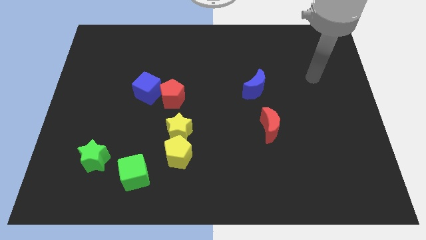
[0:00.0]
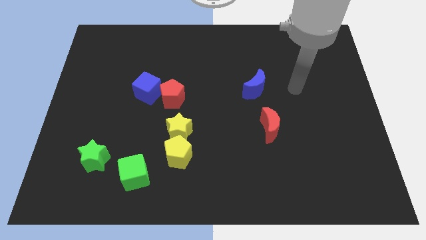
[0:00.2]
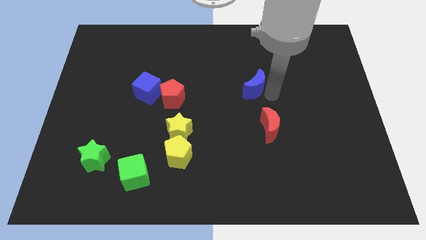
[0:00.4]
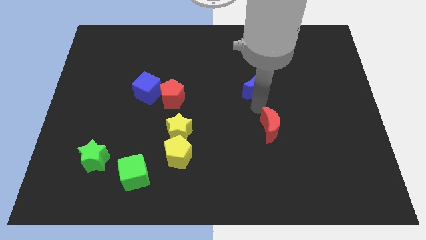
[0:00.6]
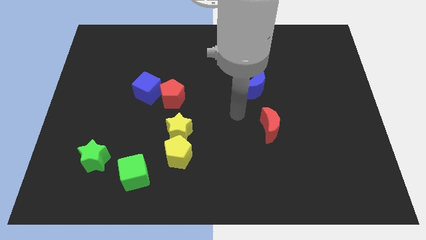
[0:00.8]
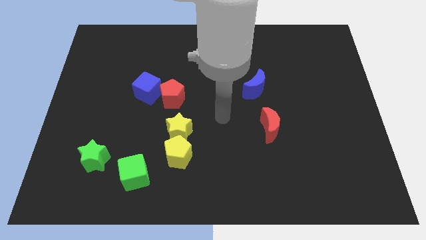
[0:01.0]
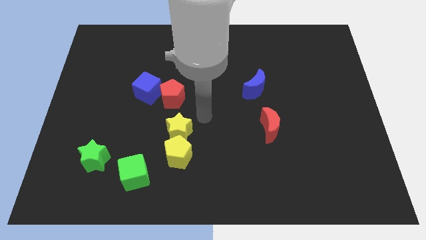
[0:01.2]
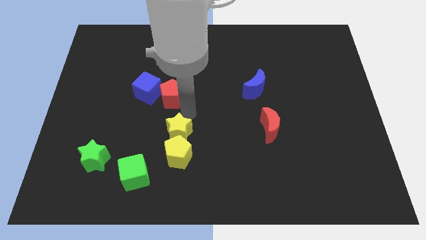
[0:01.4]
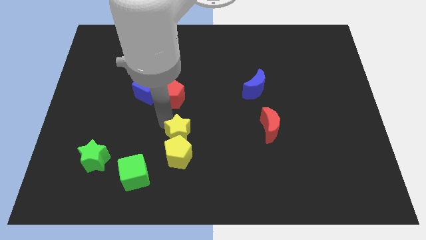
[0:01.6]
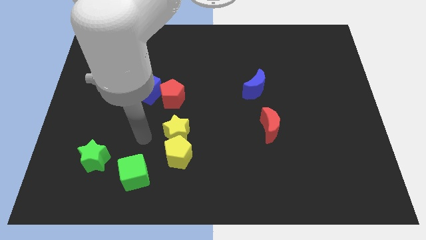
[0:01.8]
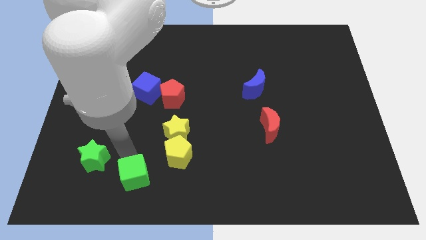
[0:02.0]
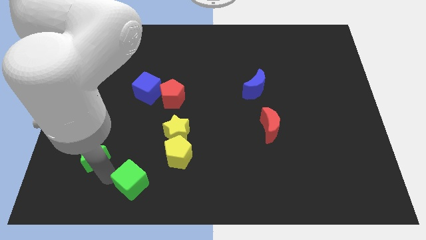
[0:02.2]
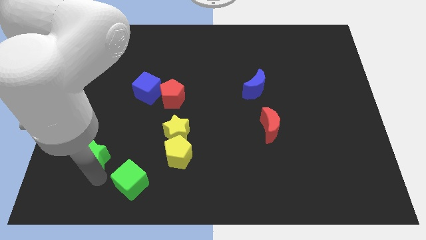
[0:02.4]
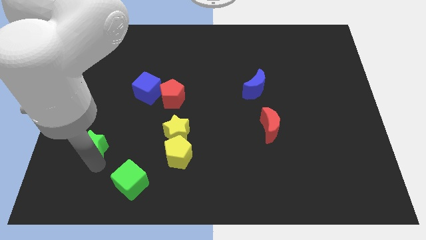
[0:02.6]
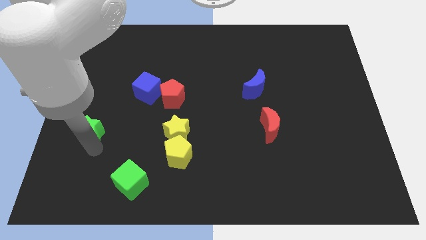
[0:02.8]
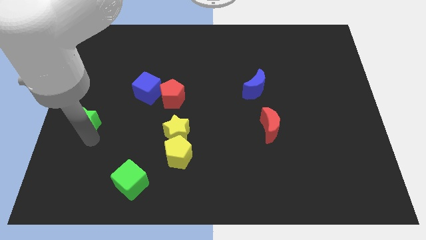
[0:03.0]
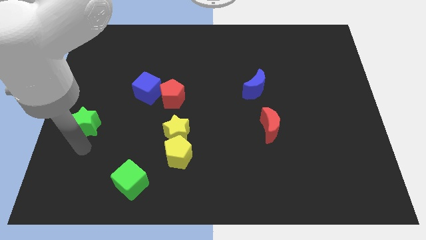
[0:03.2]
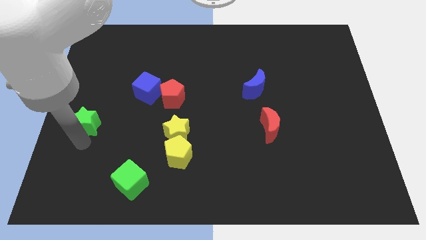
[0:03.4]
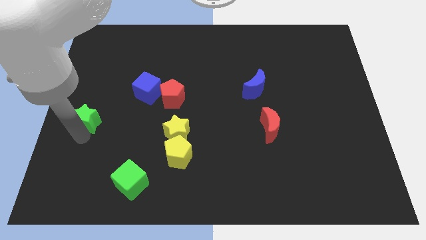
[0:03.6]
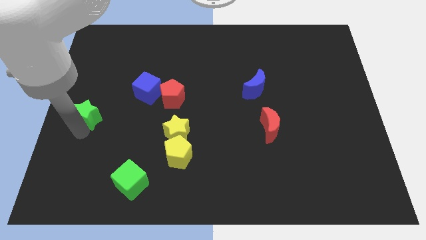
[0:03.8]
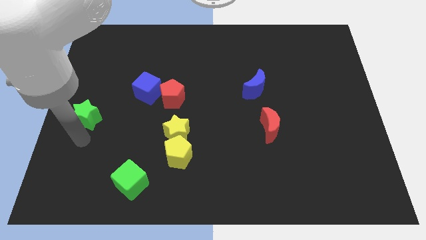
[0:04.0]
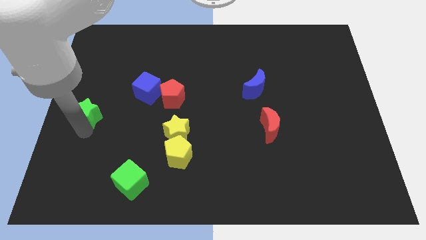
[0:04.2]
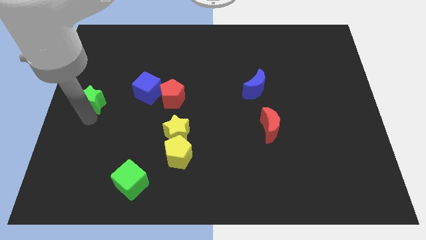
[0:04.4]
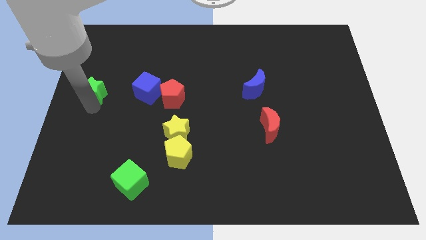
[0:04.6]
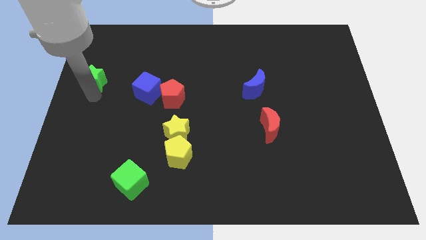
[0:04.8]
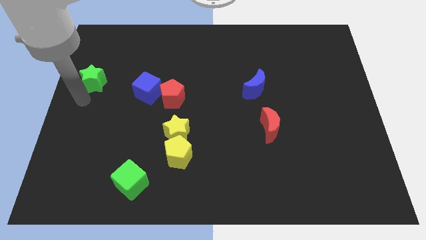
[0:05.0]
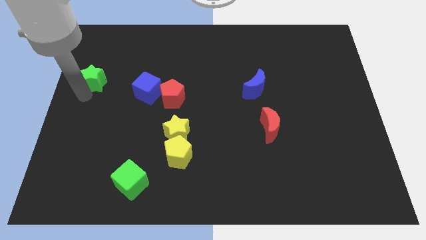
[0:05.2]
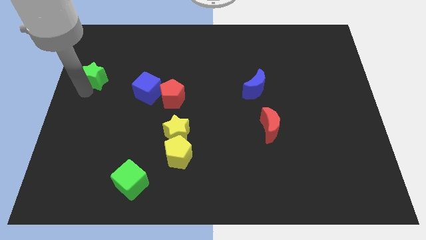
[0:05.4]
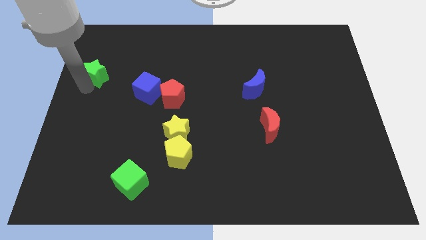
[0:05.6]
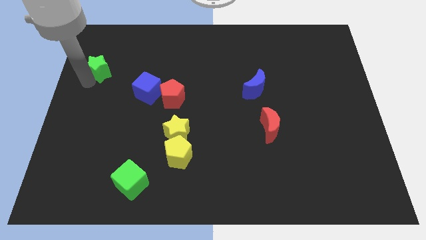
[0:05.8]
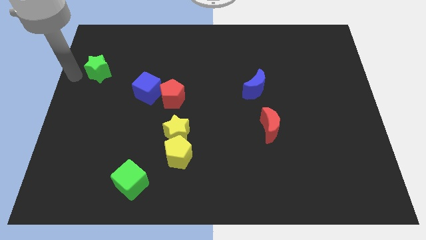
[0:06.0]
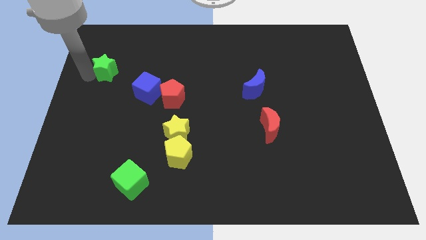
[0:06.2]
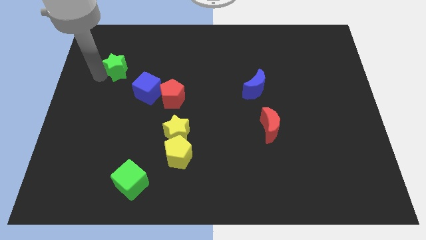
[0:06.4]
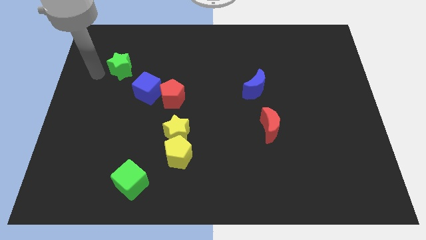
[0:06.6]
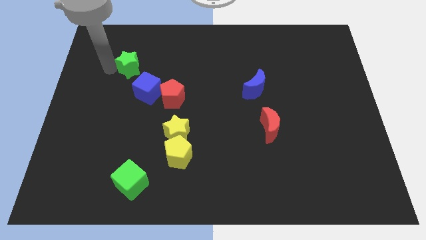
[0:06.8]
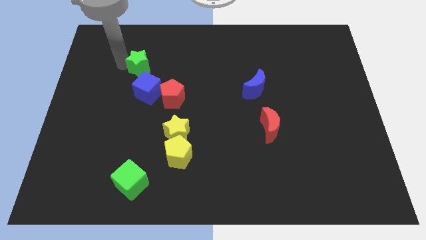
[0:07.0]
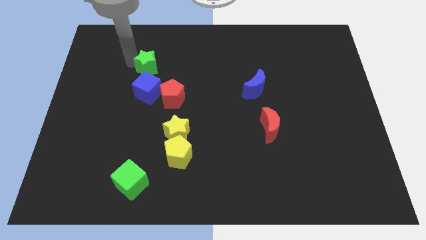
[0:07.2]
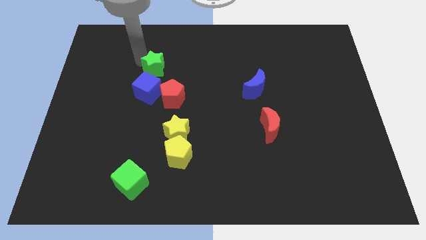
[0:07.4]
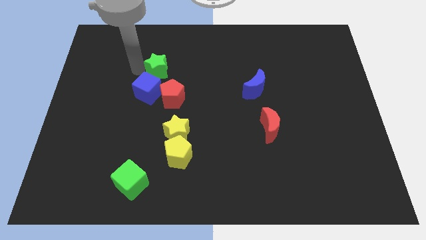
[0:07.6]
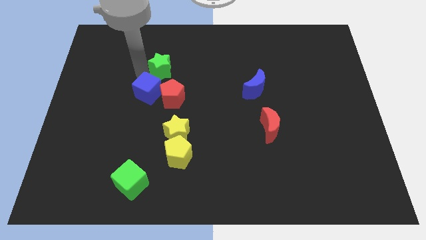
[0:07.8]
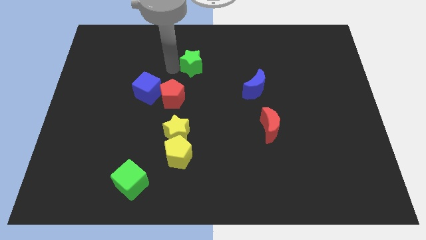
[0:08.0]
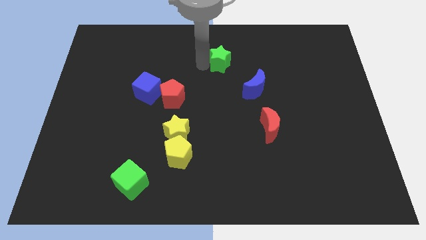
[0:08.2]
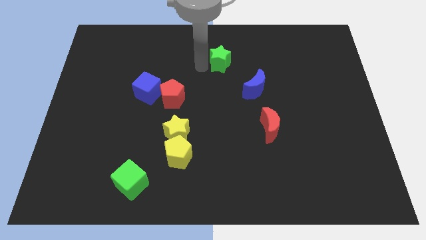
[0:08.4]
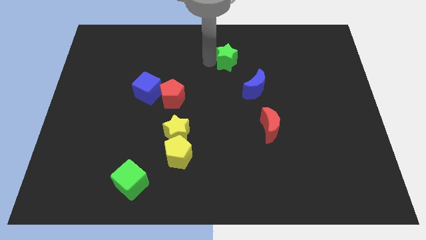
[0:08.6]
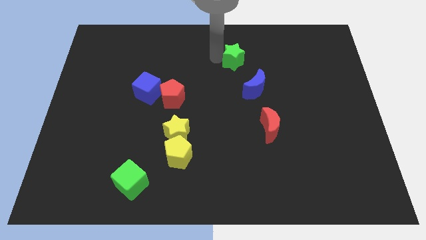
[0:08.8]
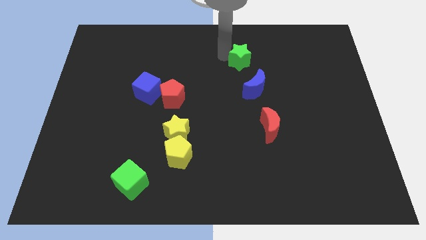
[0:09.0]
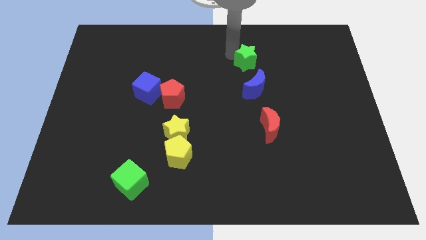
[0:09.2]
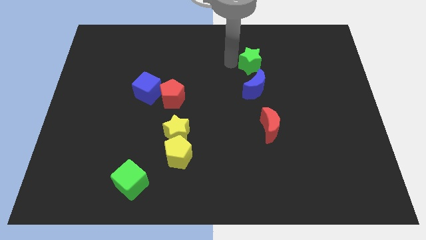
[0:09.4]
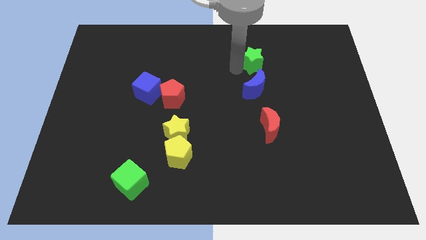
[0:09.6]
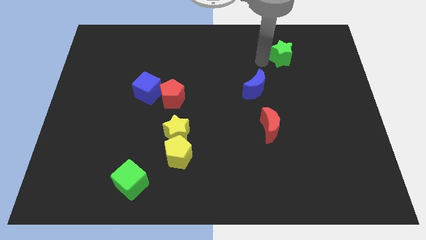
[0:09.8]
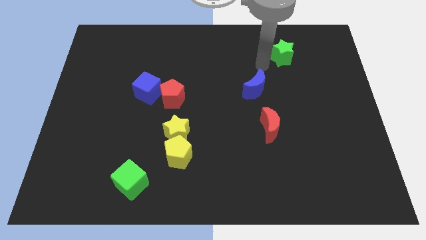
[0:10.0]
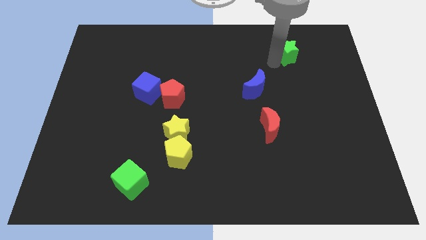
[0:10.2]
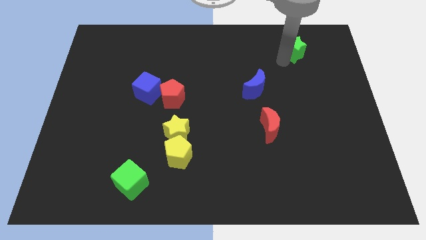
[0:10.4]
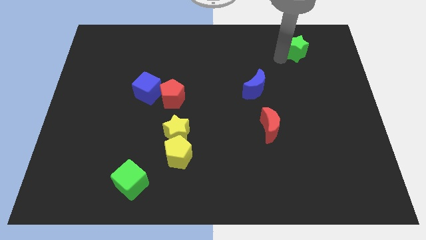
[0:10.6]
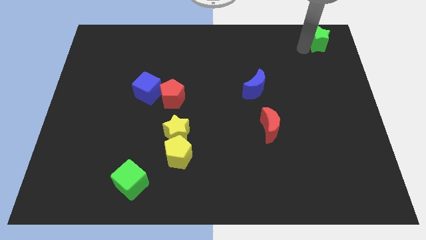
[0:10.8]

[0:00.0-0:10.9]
slide the green star to the top right corner

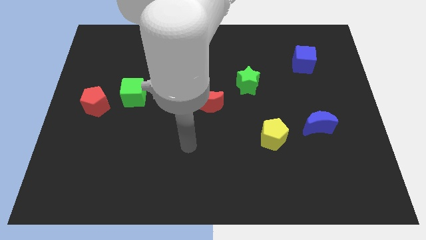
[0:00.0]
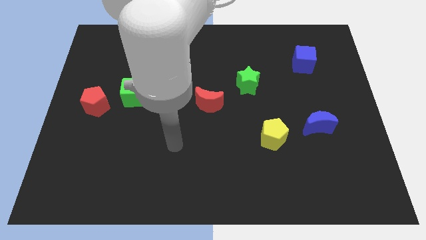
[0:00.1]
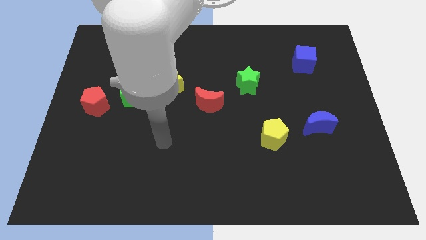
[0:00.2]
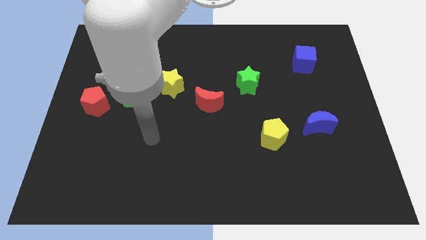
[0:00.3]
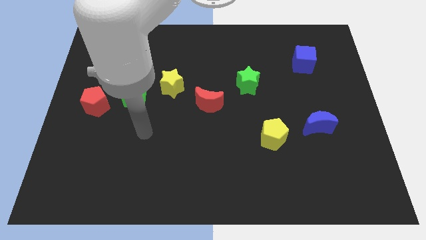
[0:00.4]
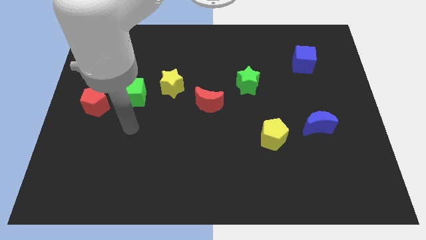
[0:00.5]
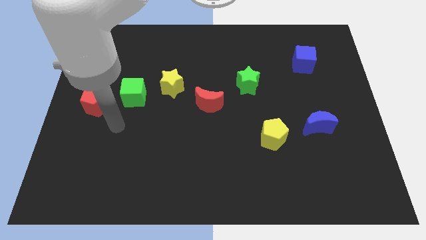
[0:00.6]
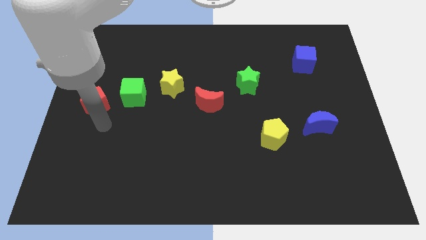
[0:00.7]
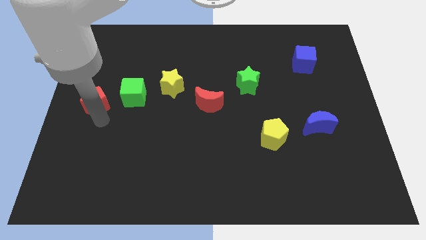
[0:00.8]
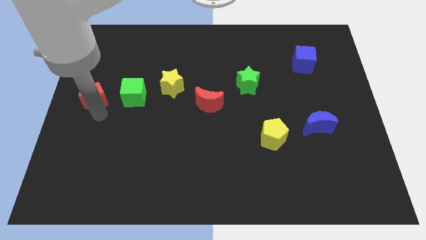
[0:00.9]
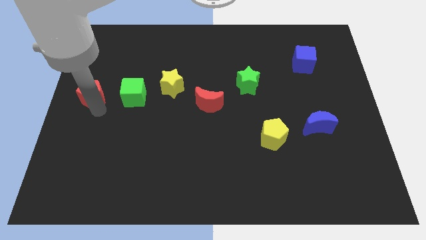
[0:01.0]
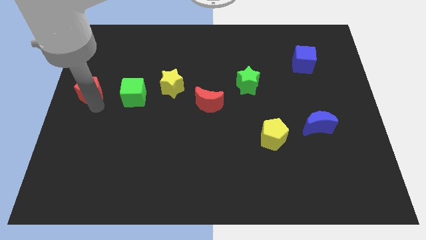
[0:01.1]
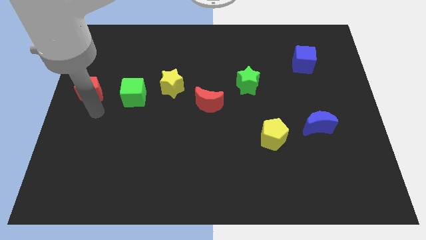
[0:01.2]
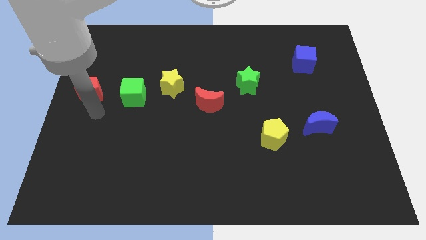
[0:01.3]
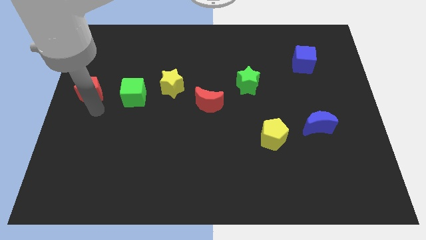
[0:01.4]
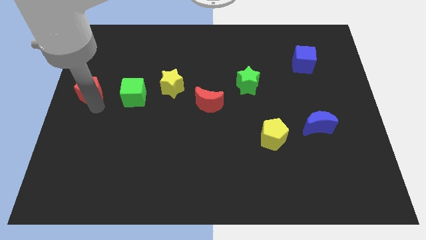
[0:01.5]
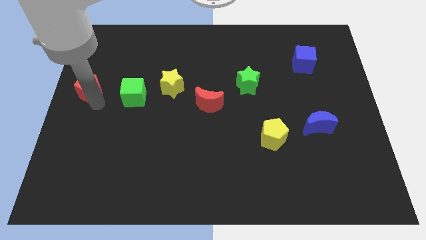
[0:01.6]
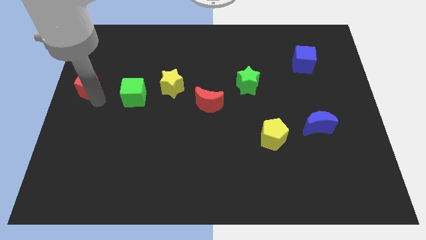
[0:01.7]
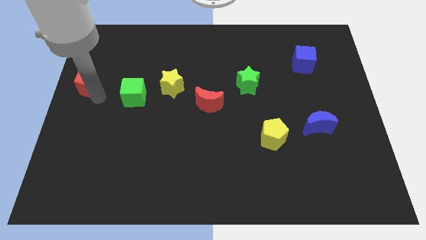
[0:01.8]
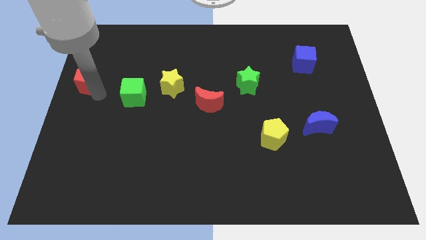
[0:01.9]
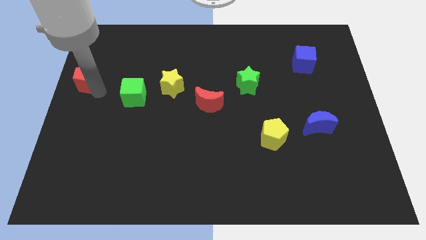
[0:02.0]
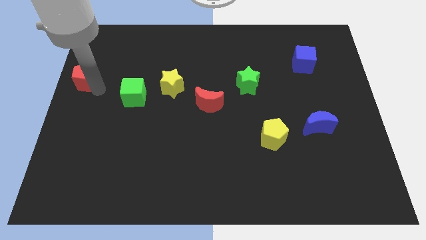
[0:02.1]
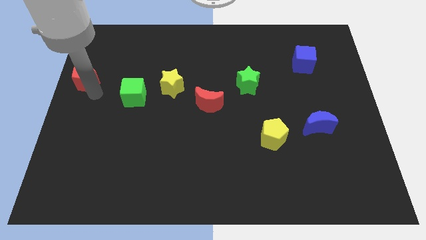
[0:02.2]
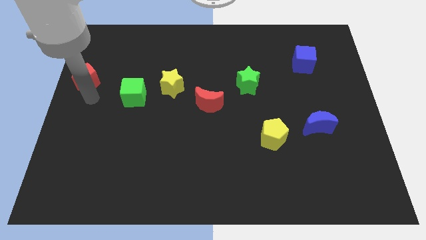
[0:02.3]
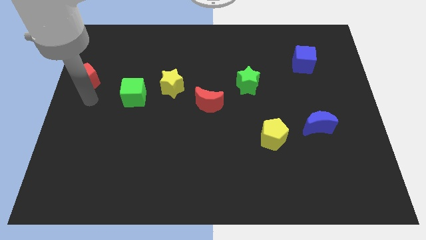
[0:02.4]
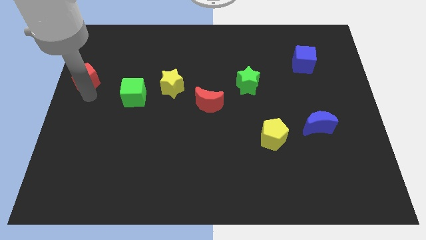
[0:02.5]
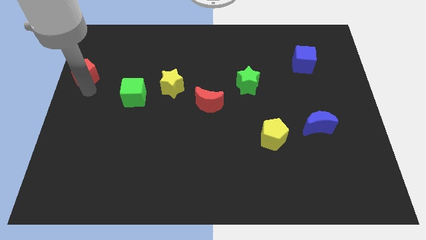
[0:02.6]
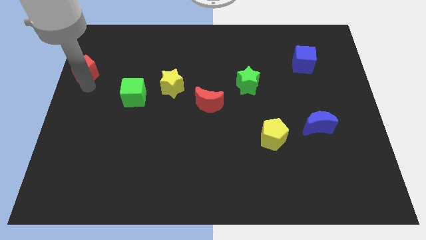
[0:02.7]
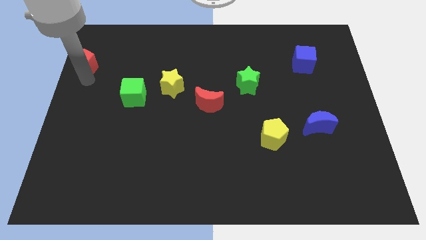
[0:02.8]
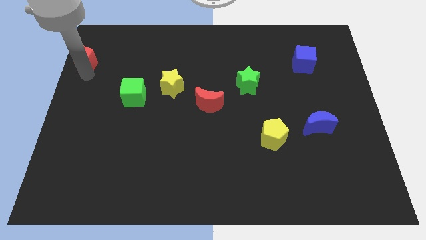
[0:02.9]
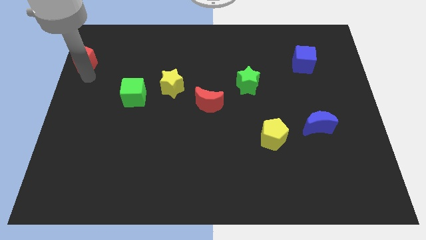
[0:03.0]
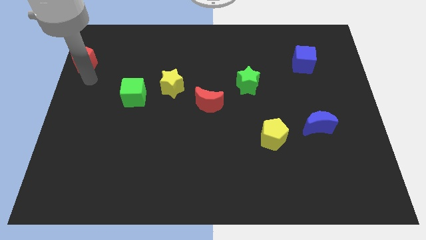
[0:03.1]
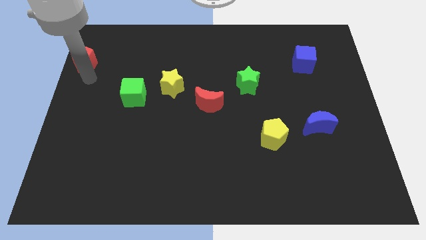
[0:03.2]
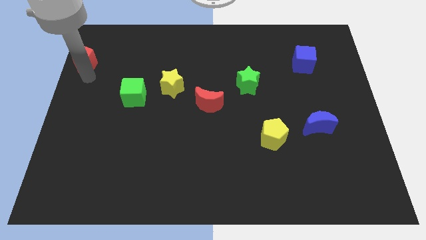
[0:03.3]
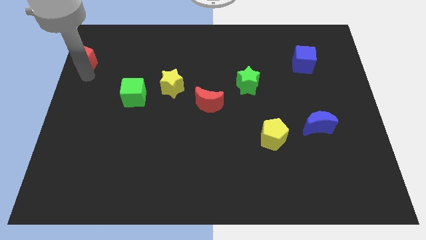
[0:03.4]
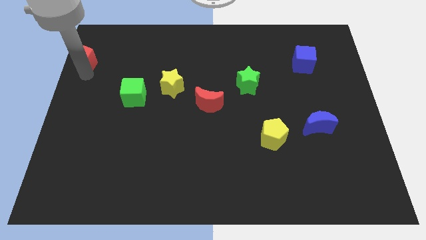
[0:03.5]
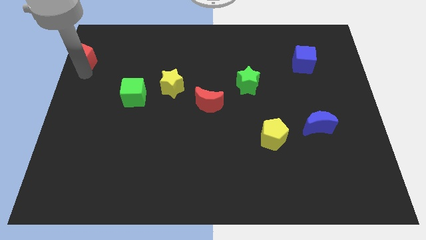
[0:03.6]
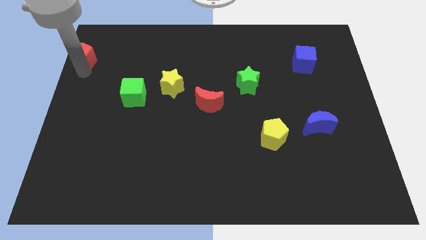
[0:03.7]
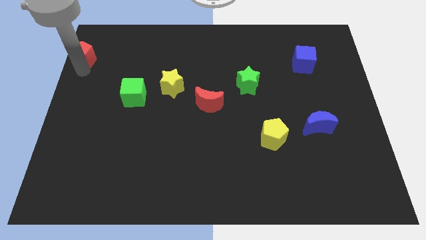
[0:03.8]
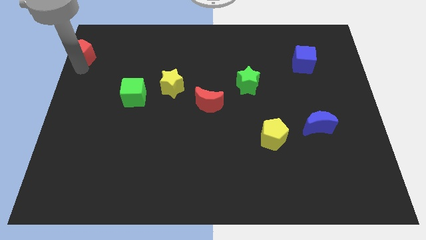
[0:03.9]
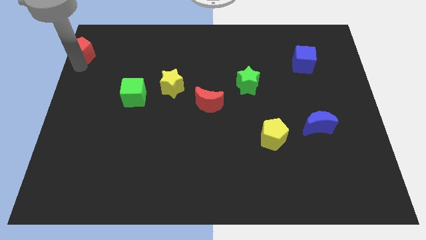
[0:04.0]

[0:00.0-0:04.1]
put the red pentagon to the upper left corner
